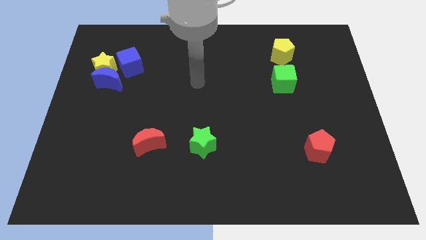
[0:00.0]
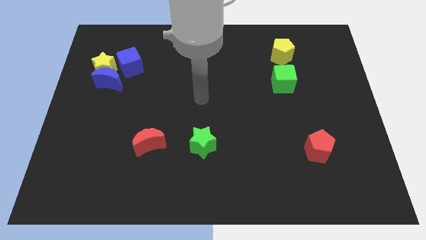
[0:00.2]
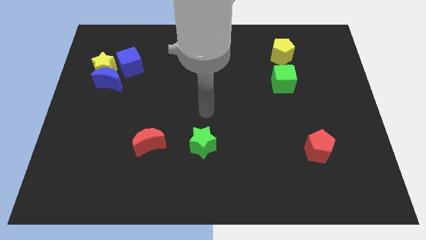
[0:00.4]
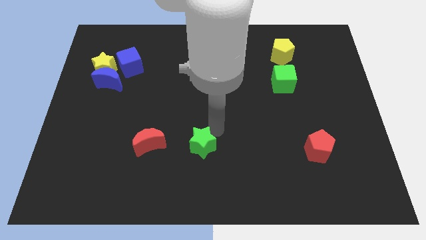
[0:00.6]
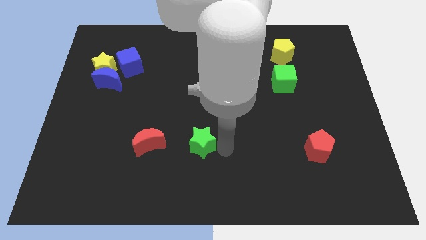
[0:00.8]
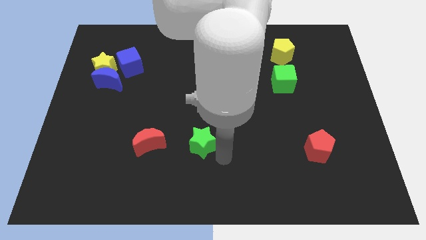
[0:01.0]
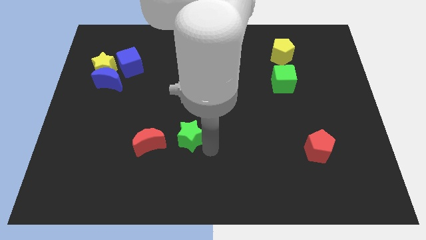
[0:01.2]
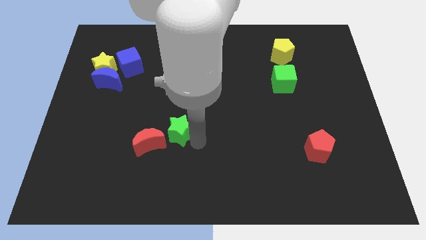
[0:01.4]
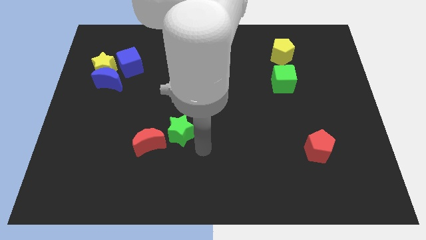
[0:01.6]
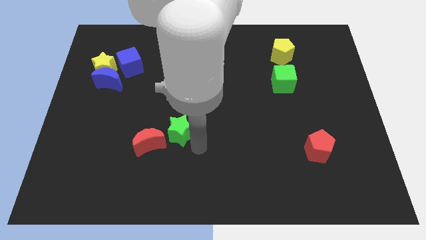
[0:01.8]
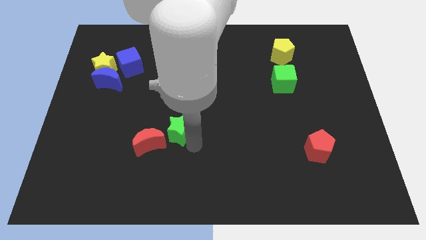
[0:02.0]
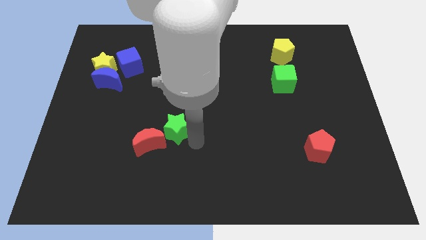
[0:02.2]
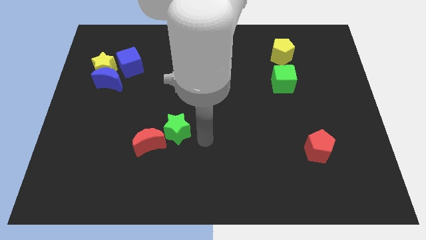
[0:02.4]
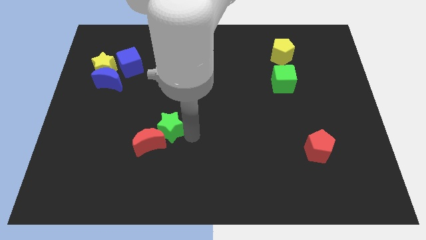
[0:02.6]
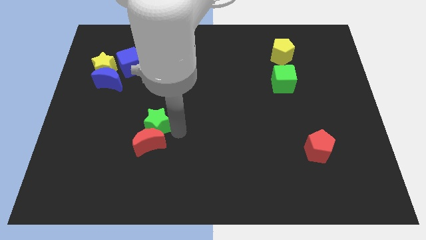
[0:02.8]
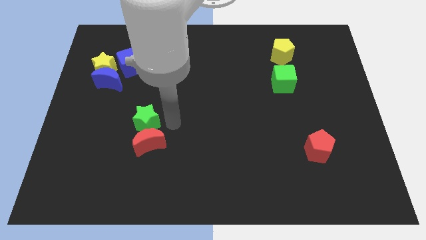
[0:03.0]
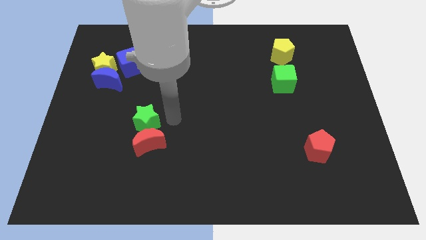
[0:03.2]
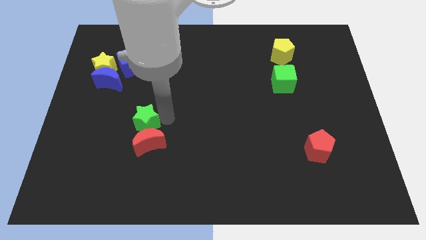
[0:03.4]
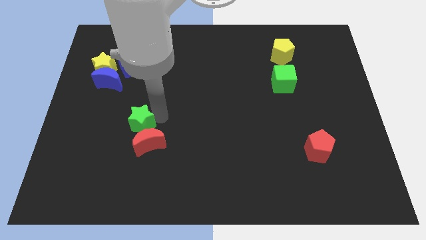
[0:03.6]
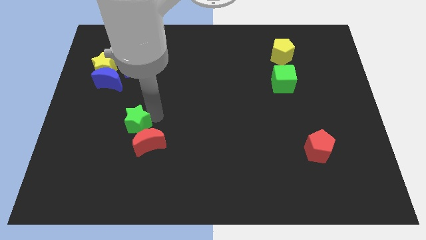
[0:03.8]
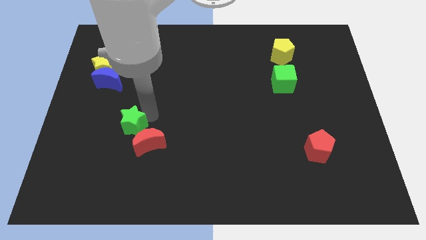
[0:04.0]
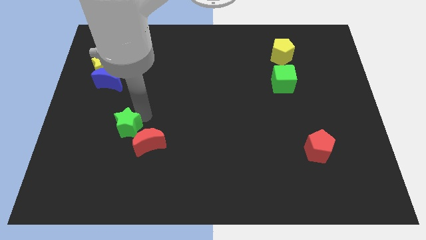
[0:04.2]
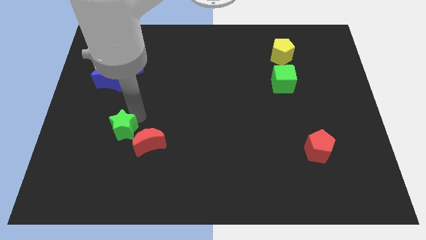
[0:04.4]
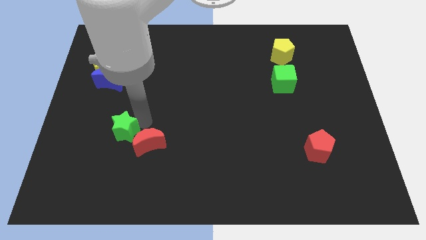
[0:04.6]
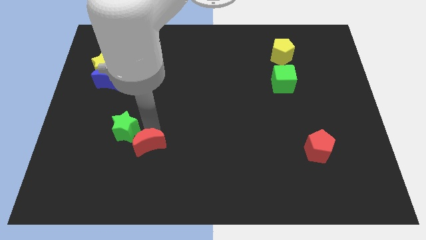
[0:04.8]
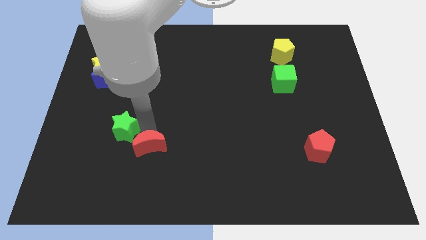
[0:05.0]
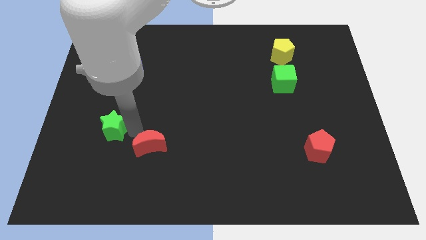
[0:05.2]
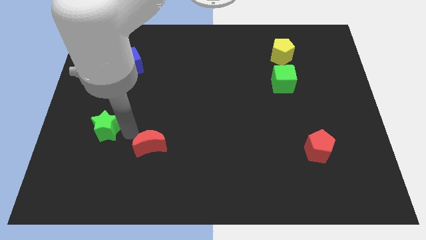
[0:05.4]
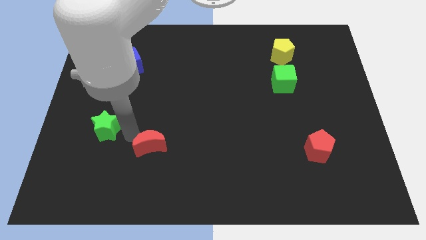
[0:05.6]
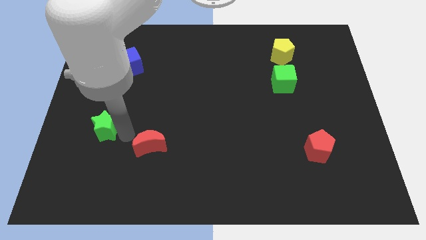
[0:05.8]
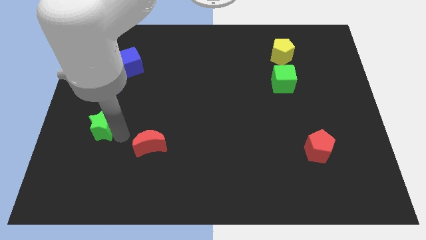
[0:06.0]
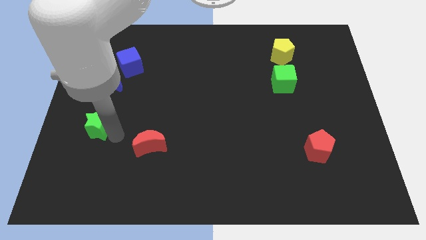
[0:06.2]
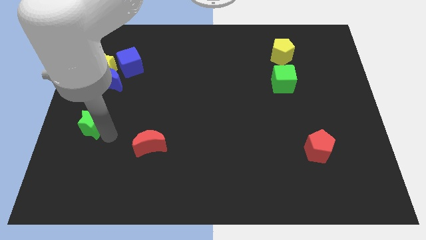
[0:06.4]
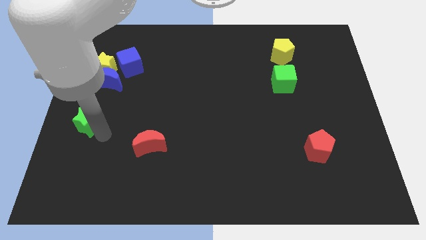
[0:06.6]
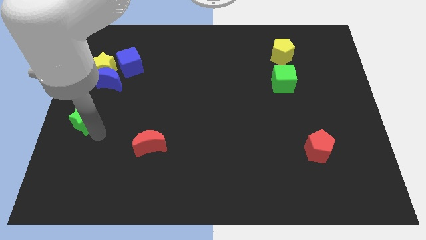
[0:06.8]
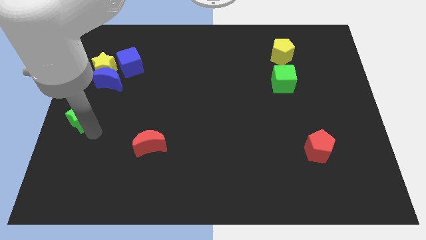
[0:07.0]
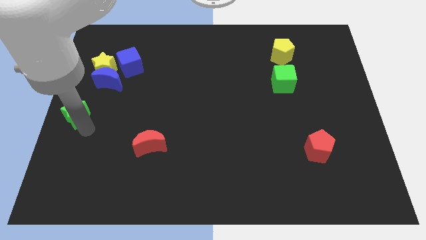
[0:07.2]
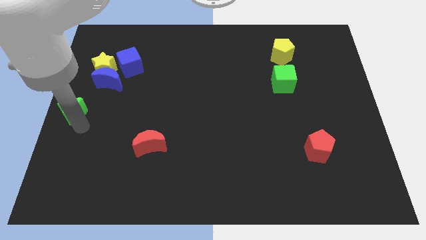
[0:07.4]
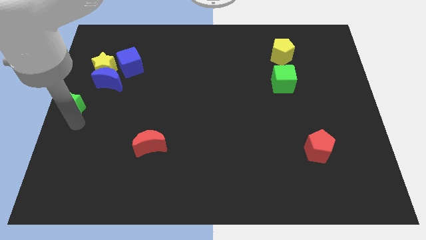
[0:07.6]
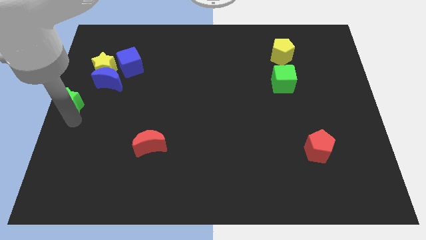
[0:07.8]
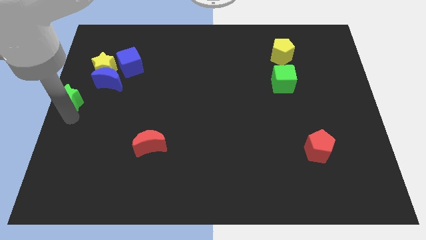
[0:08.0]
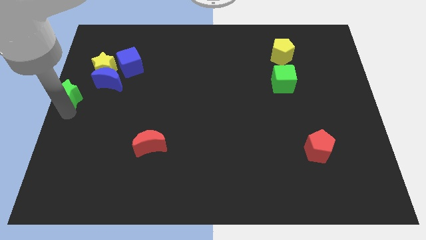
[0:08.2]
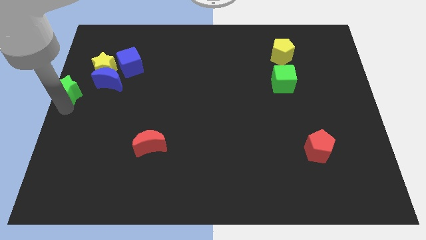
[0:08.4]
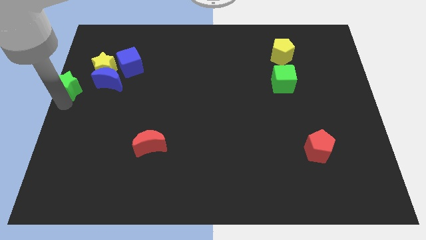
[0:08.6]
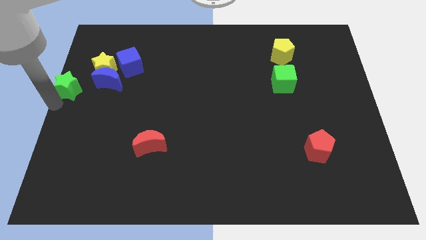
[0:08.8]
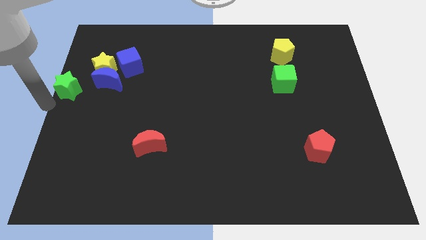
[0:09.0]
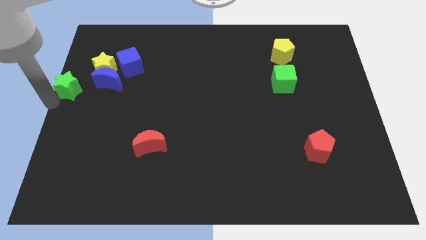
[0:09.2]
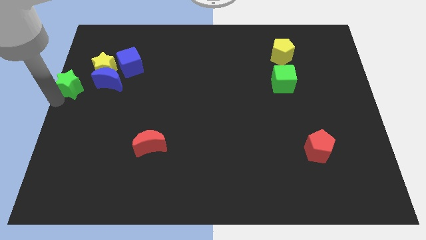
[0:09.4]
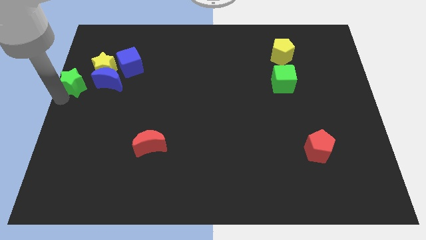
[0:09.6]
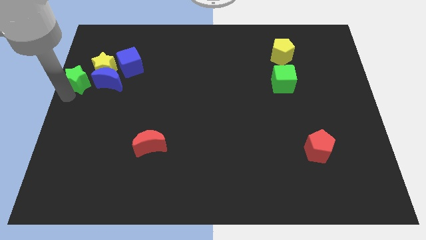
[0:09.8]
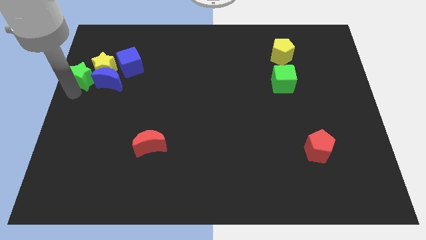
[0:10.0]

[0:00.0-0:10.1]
move the green star close to the yellow star

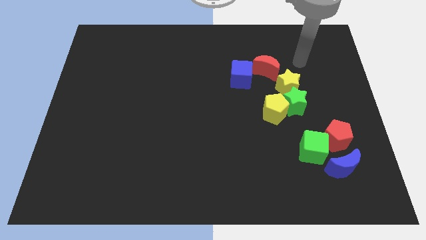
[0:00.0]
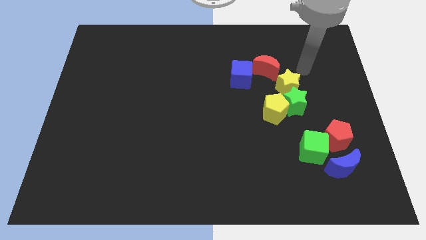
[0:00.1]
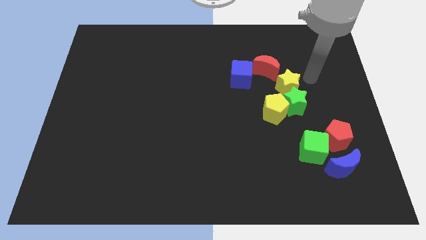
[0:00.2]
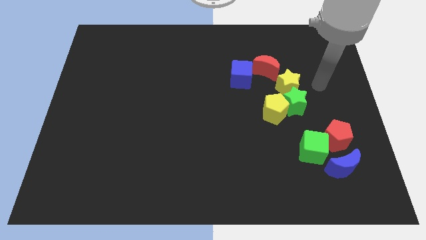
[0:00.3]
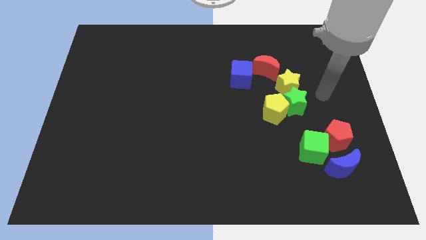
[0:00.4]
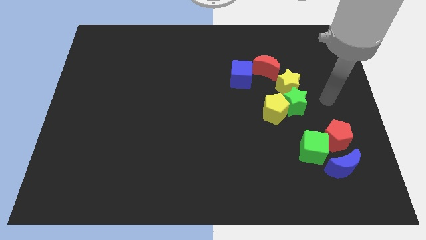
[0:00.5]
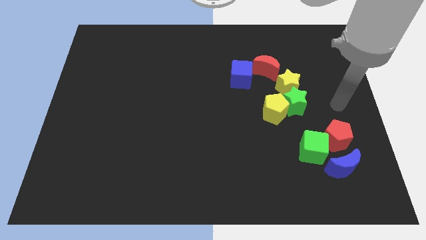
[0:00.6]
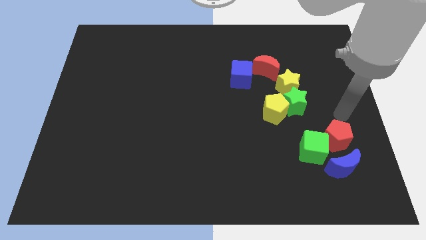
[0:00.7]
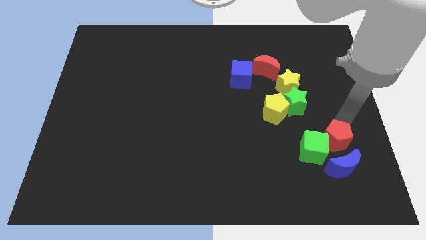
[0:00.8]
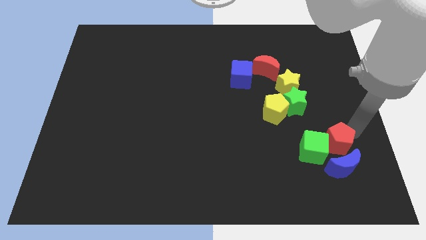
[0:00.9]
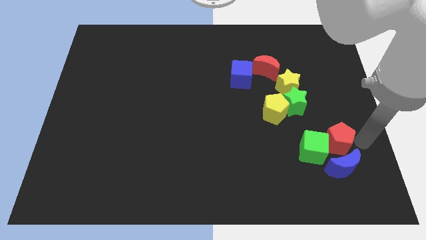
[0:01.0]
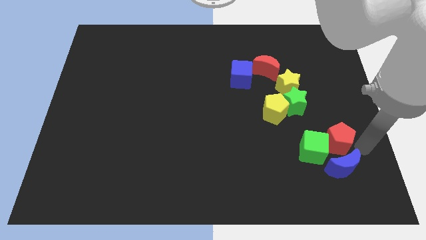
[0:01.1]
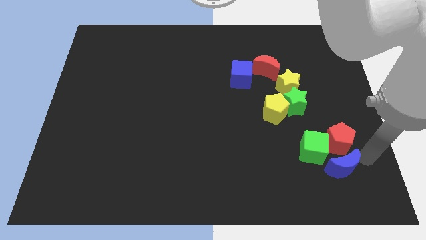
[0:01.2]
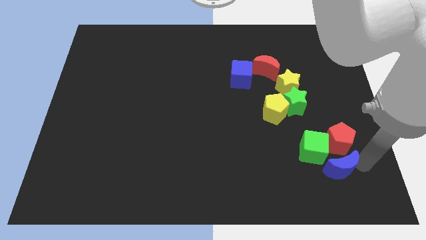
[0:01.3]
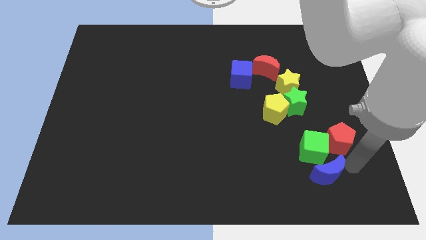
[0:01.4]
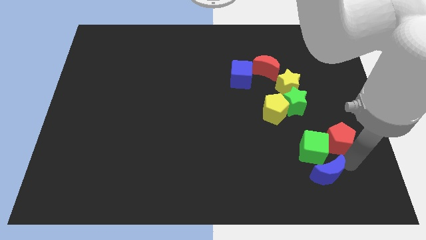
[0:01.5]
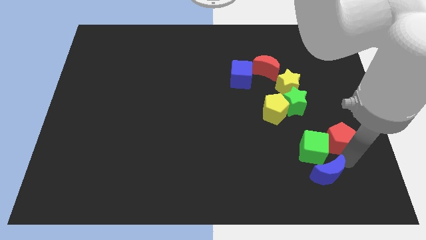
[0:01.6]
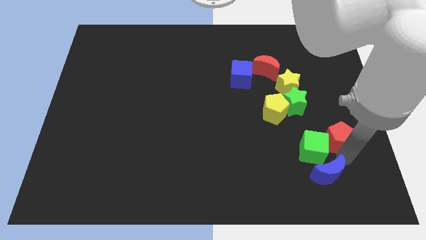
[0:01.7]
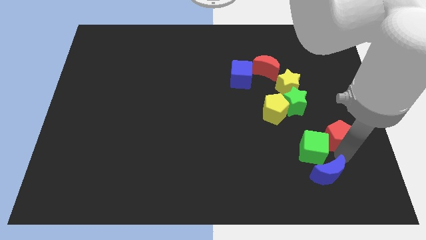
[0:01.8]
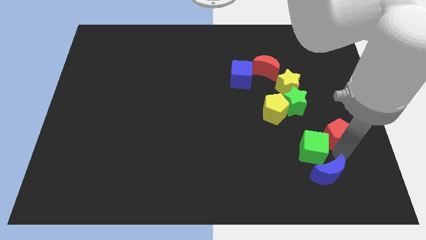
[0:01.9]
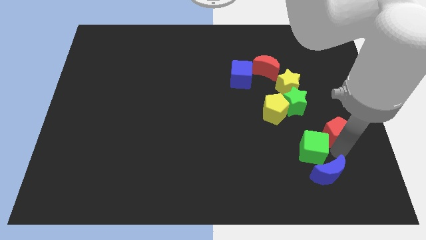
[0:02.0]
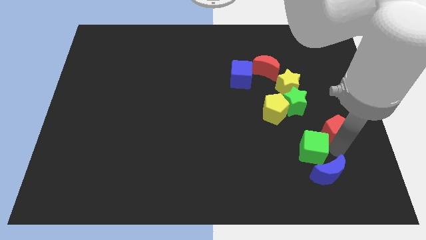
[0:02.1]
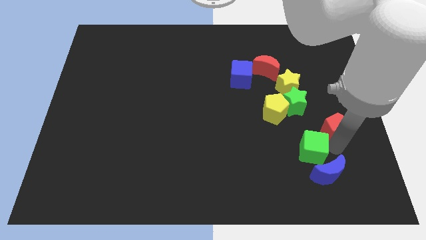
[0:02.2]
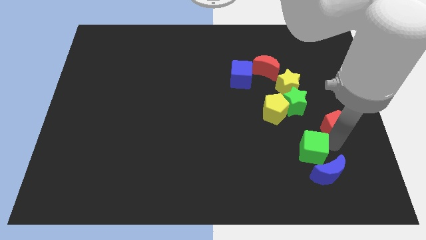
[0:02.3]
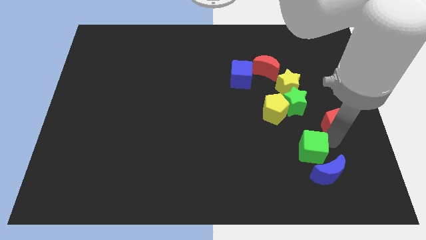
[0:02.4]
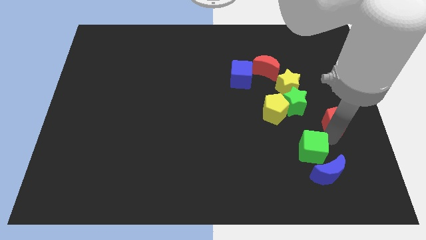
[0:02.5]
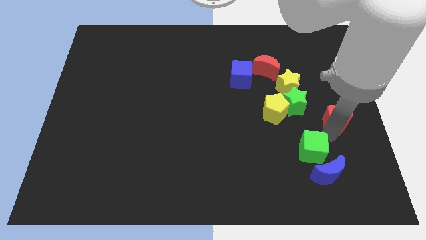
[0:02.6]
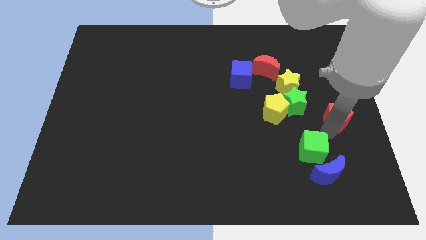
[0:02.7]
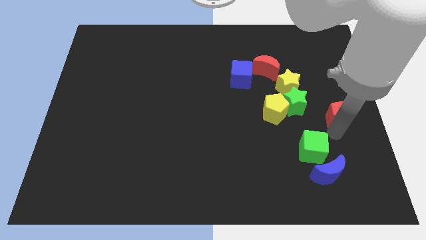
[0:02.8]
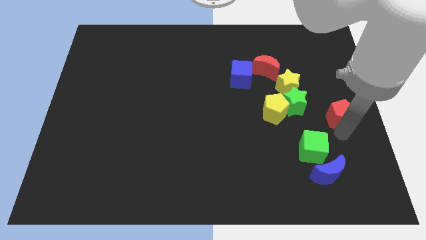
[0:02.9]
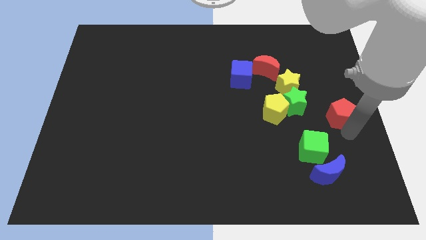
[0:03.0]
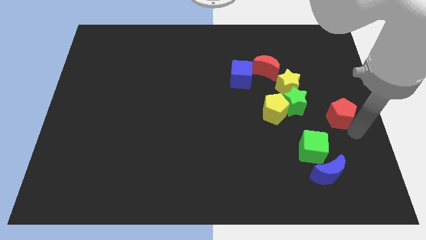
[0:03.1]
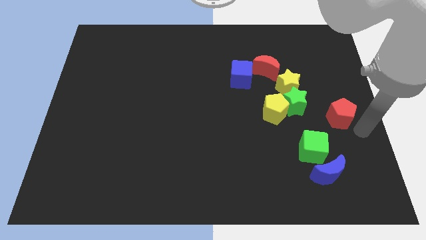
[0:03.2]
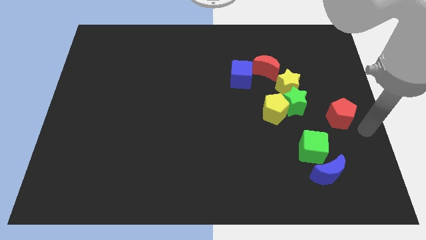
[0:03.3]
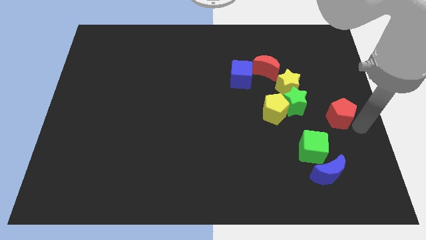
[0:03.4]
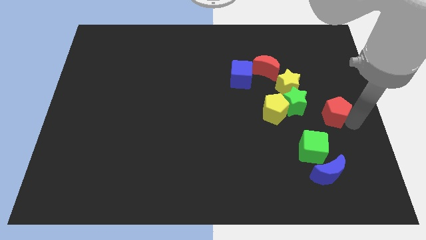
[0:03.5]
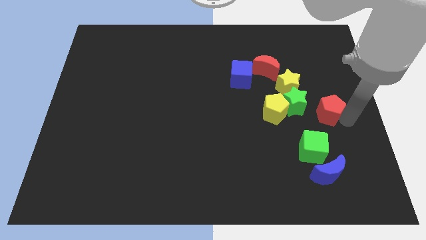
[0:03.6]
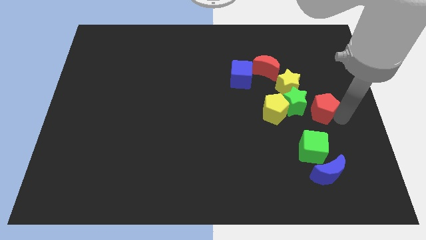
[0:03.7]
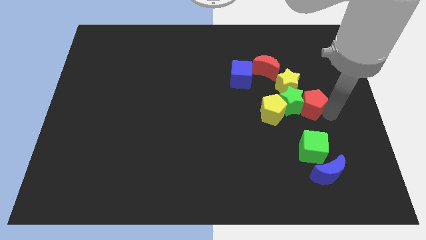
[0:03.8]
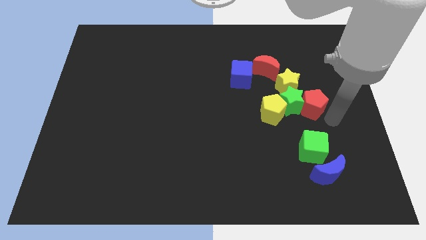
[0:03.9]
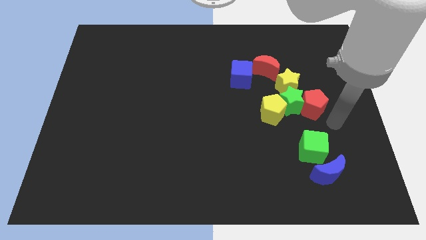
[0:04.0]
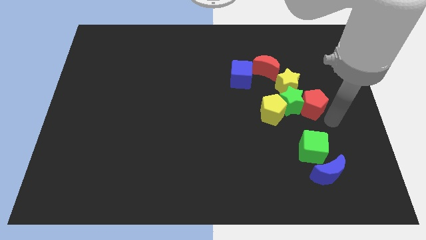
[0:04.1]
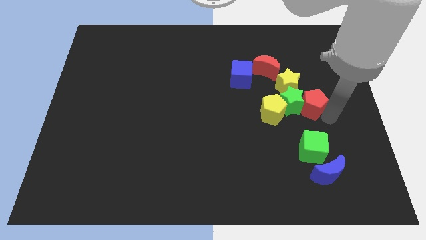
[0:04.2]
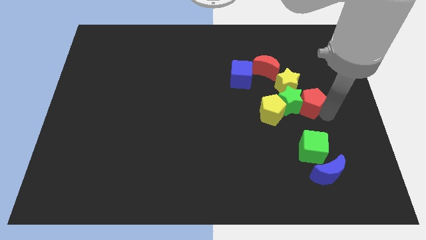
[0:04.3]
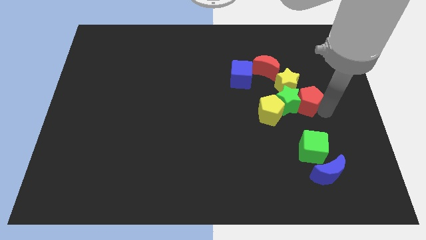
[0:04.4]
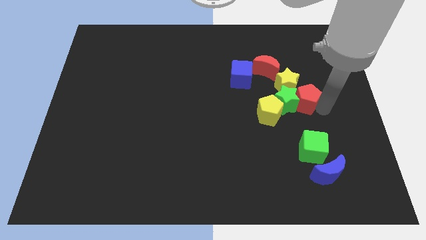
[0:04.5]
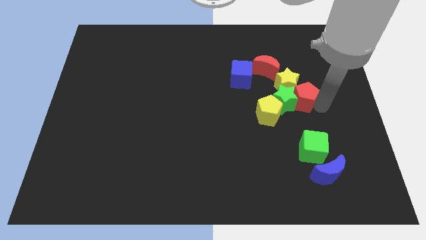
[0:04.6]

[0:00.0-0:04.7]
put the red pentagon next to the yellow star
